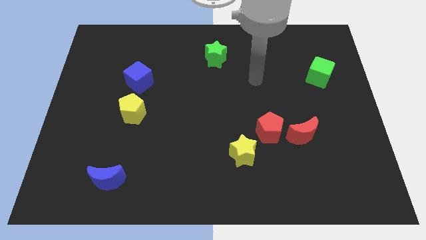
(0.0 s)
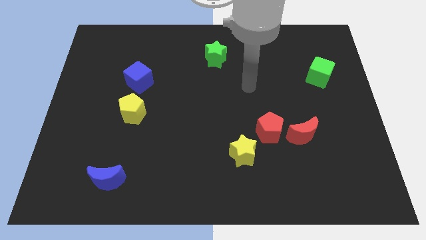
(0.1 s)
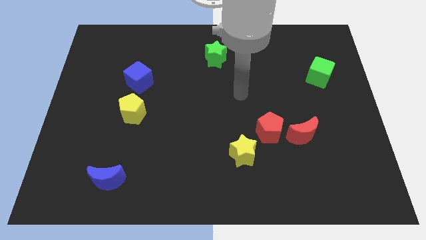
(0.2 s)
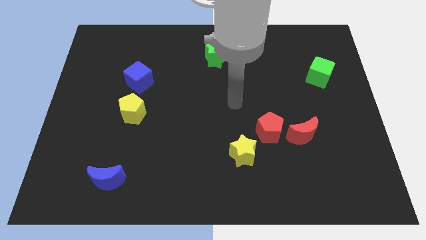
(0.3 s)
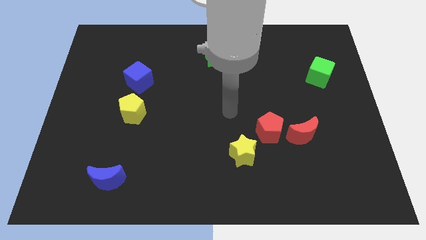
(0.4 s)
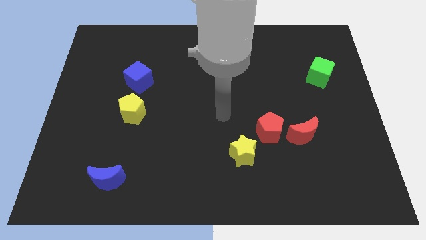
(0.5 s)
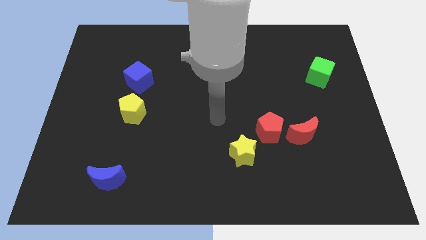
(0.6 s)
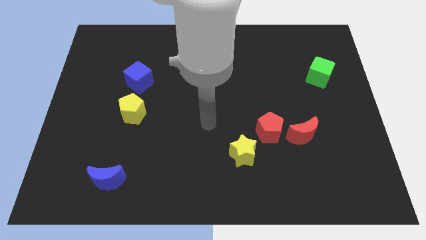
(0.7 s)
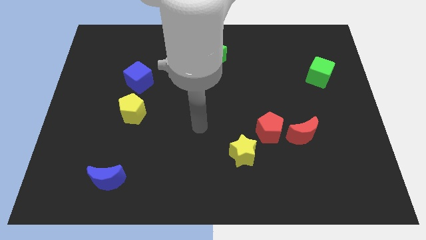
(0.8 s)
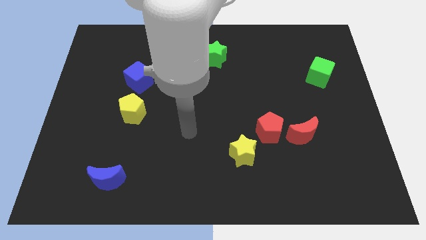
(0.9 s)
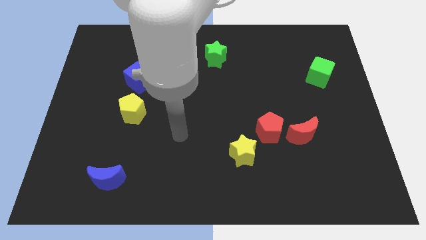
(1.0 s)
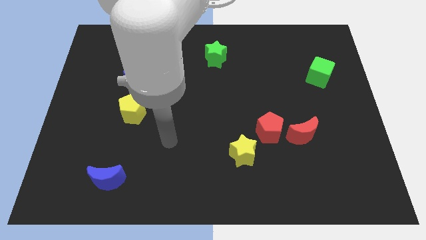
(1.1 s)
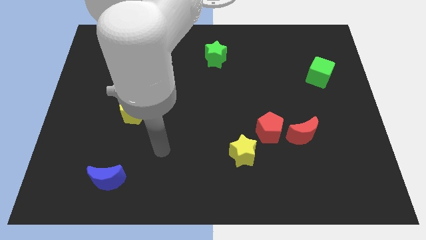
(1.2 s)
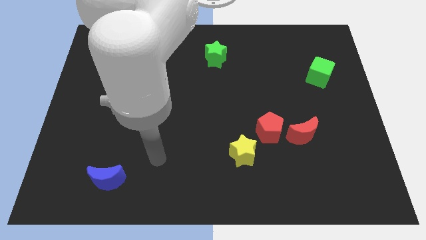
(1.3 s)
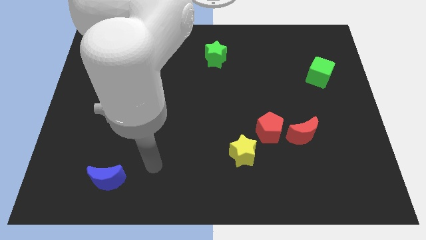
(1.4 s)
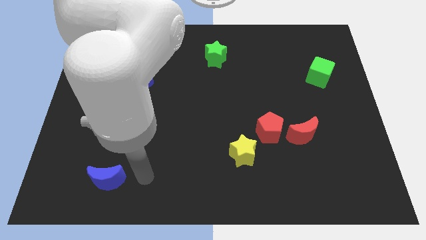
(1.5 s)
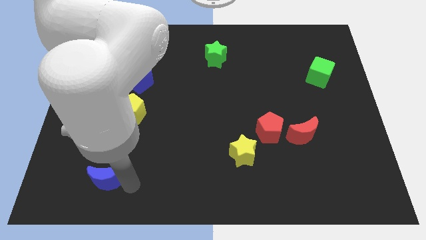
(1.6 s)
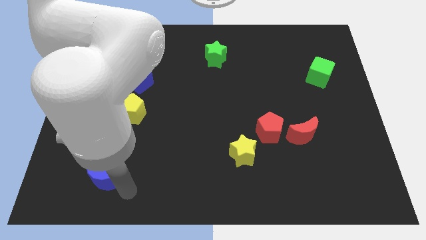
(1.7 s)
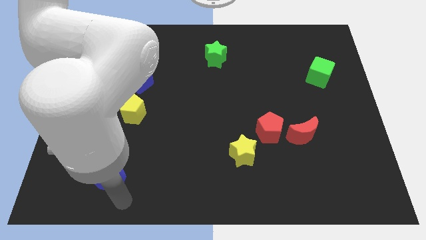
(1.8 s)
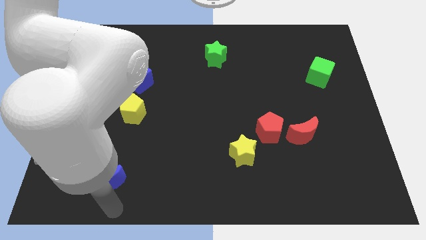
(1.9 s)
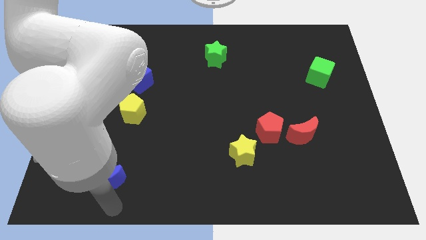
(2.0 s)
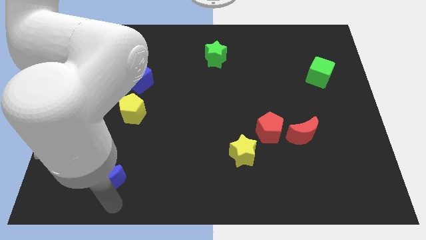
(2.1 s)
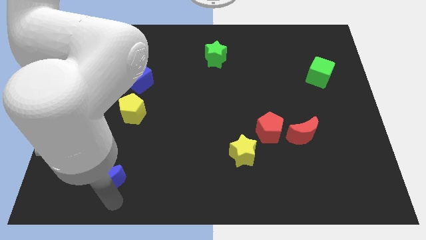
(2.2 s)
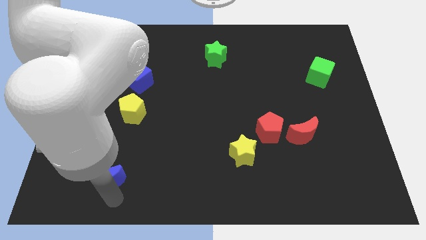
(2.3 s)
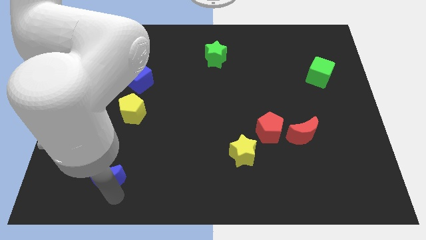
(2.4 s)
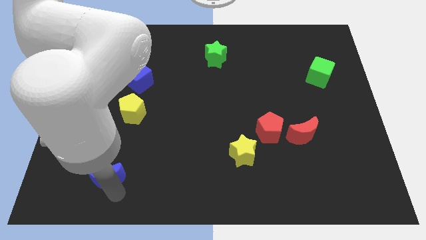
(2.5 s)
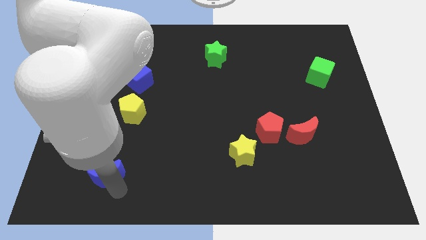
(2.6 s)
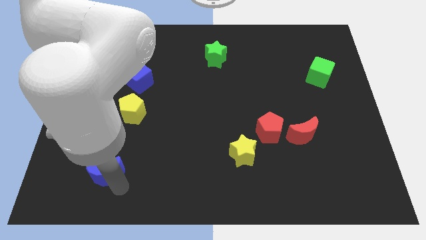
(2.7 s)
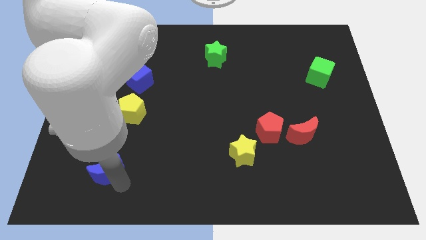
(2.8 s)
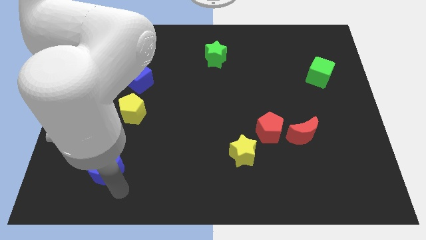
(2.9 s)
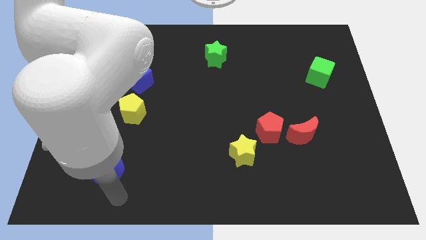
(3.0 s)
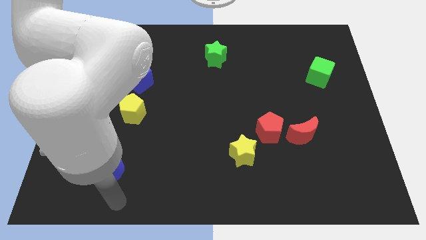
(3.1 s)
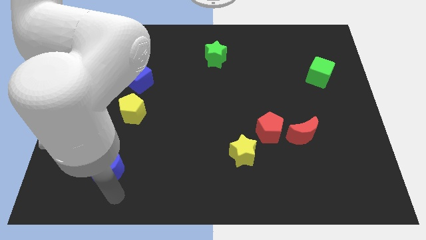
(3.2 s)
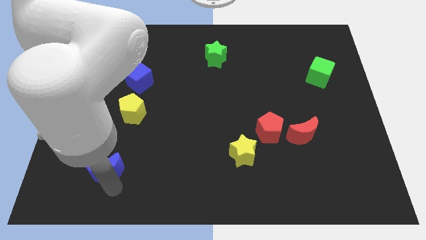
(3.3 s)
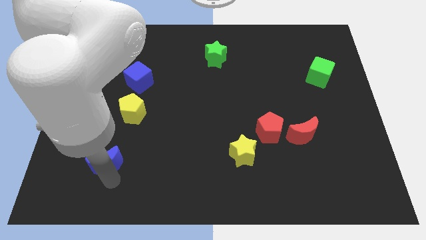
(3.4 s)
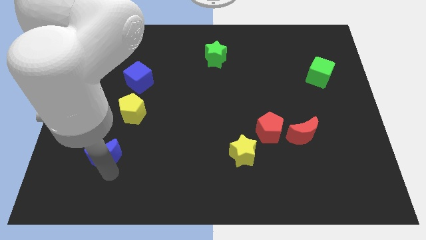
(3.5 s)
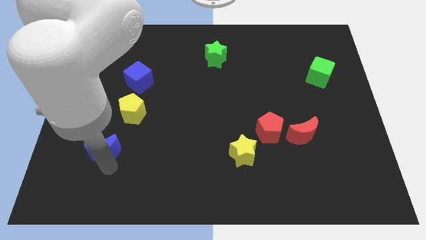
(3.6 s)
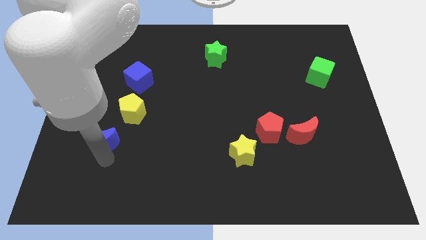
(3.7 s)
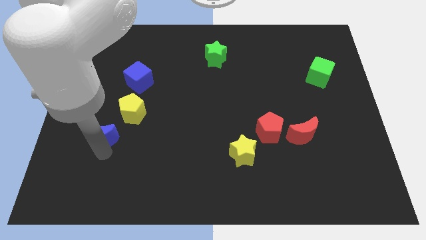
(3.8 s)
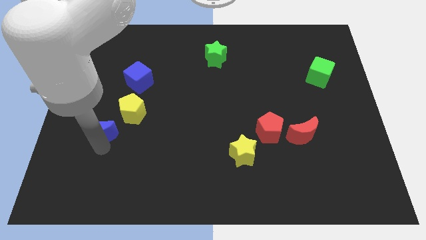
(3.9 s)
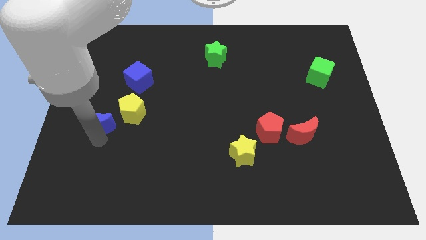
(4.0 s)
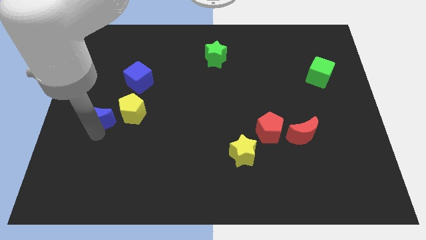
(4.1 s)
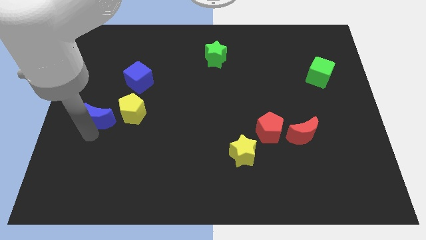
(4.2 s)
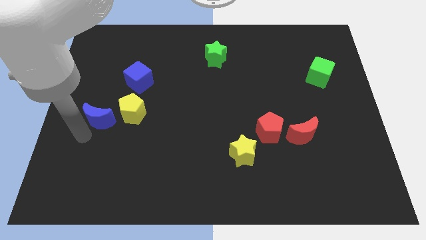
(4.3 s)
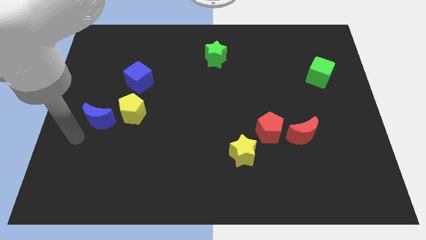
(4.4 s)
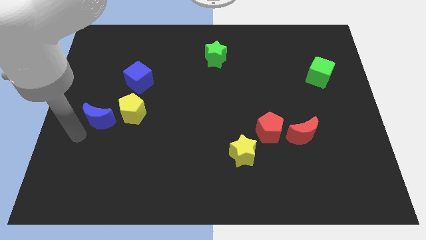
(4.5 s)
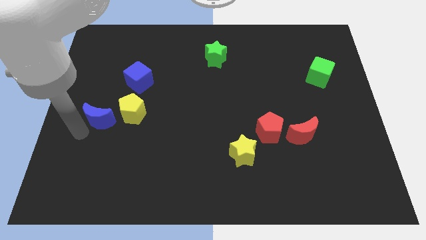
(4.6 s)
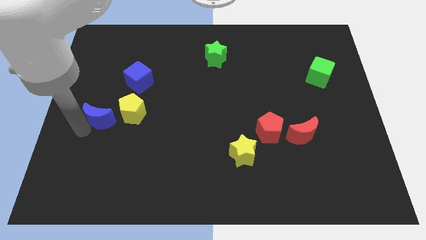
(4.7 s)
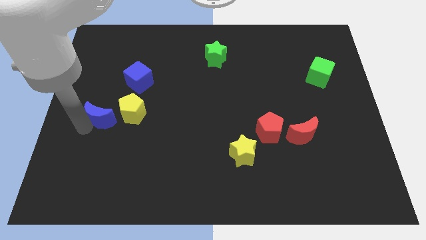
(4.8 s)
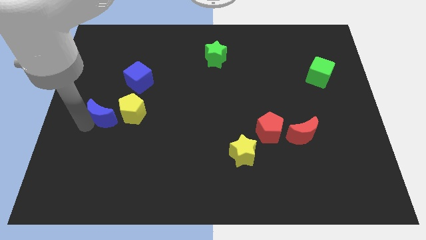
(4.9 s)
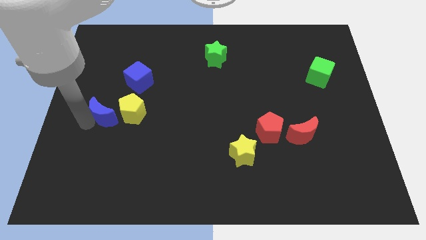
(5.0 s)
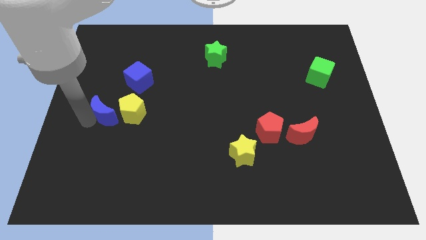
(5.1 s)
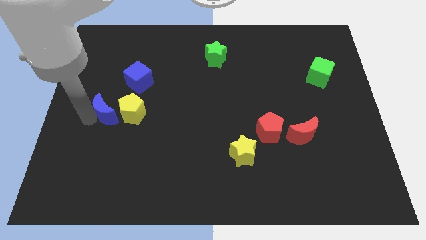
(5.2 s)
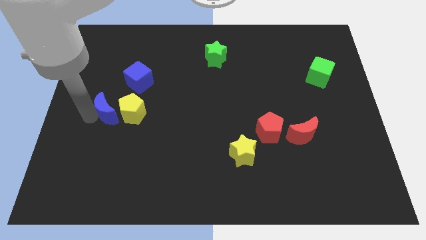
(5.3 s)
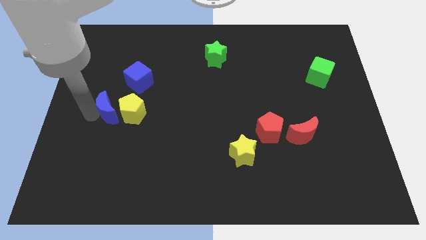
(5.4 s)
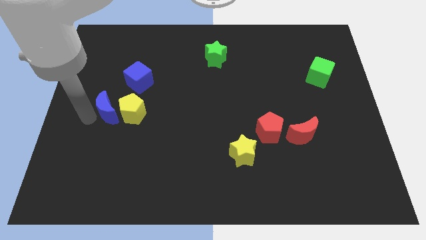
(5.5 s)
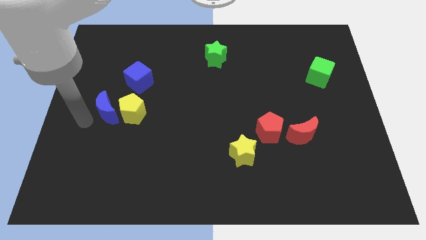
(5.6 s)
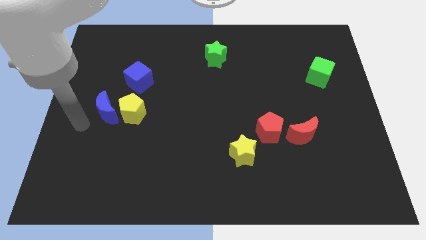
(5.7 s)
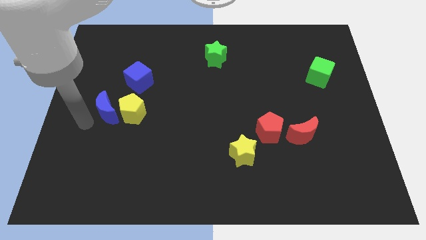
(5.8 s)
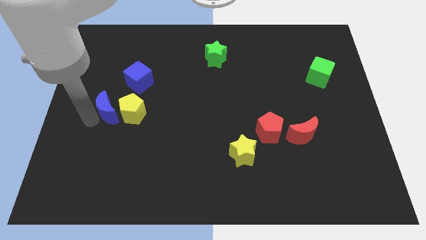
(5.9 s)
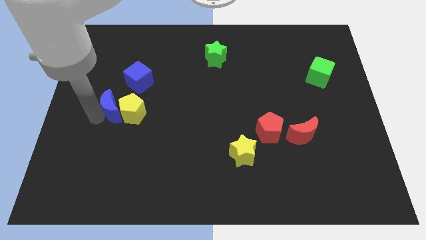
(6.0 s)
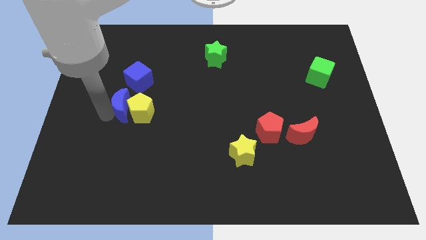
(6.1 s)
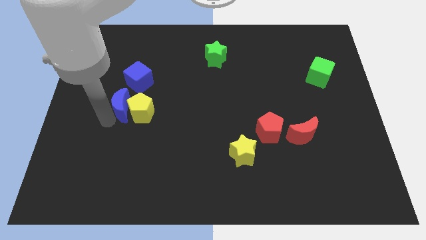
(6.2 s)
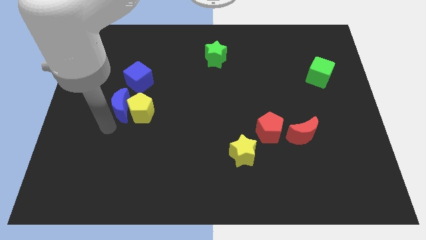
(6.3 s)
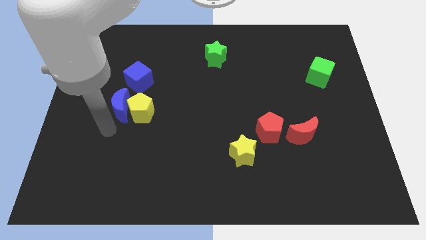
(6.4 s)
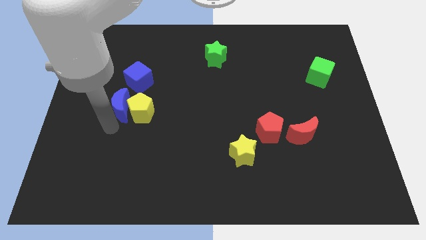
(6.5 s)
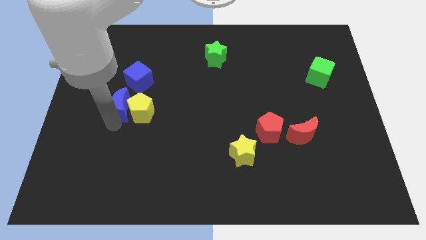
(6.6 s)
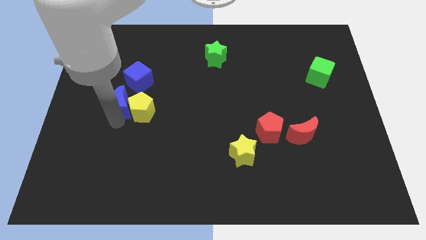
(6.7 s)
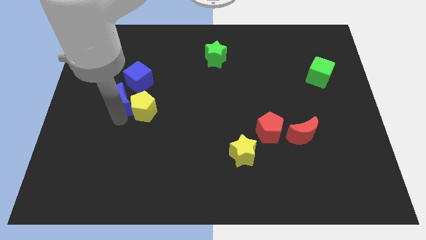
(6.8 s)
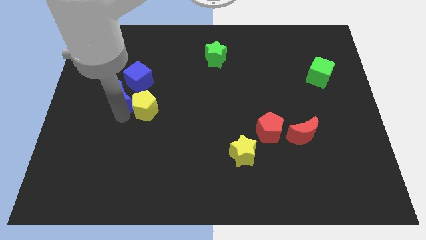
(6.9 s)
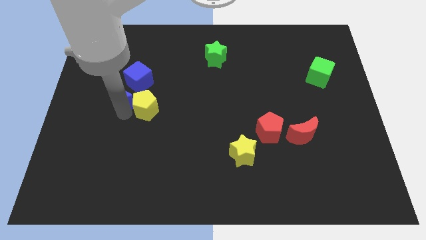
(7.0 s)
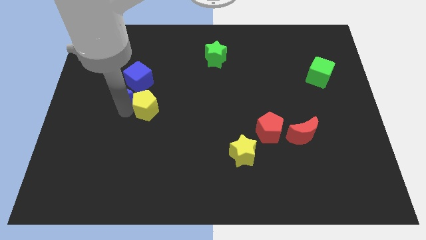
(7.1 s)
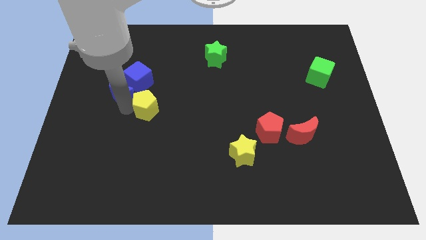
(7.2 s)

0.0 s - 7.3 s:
slide the blue moon close to the blue cube

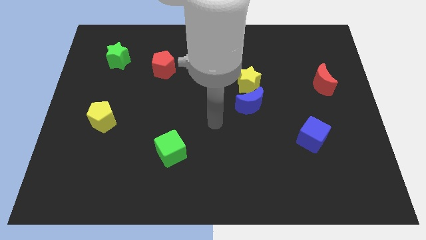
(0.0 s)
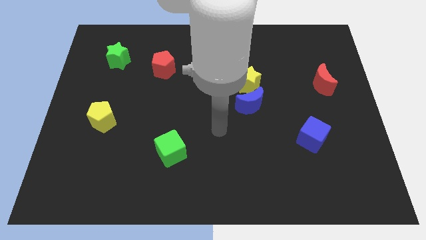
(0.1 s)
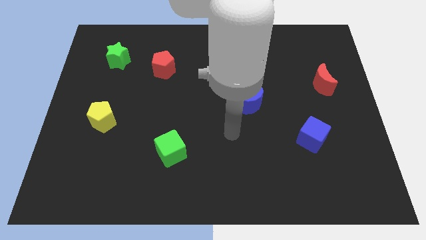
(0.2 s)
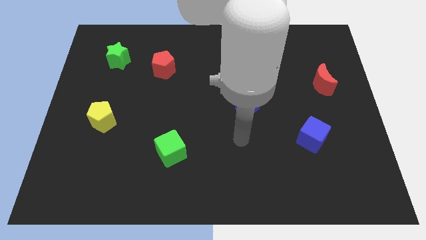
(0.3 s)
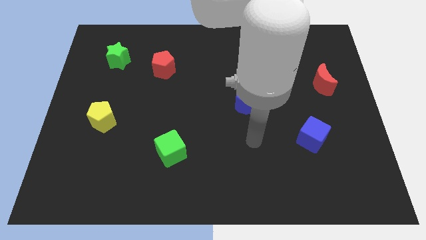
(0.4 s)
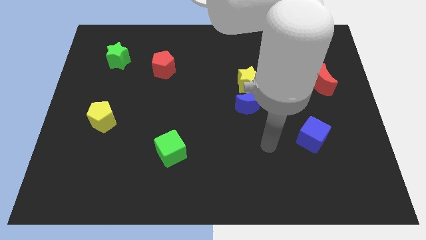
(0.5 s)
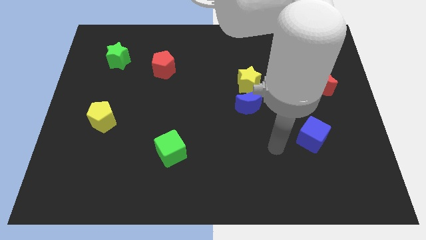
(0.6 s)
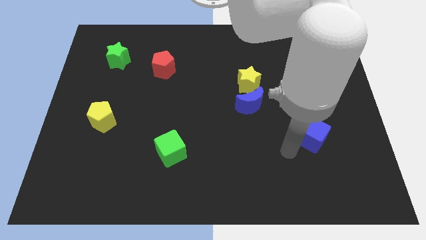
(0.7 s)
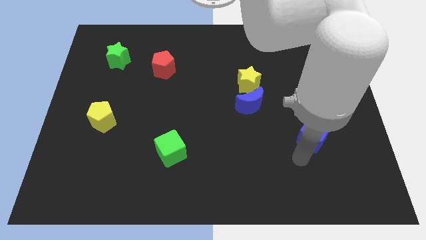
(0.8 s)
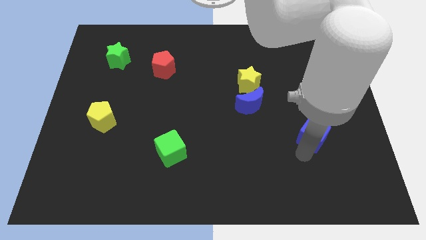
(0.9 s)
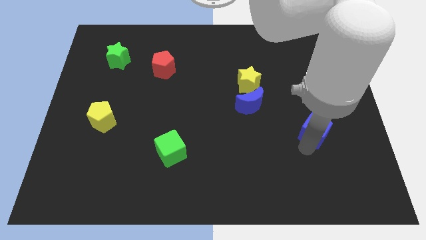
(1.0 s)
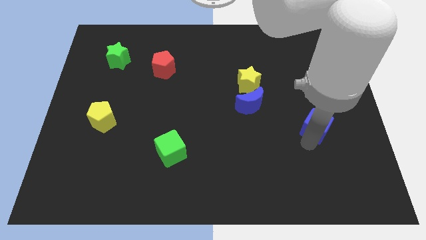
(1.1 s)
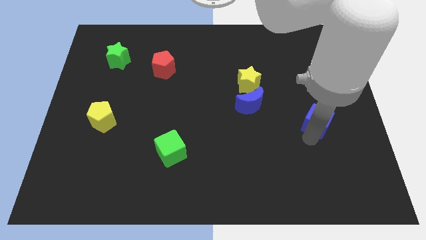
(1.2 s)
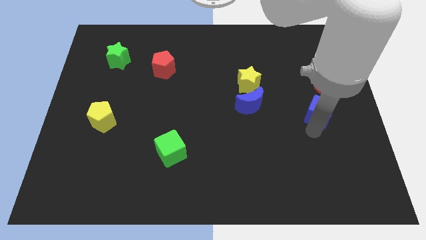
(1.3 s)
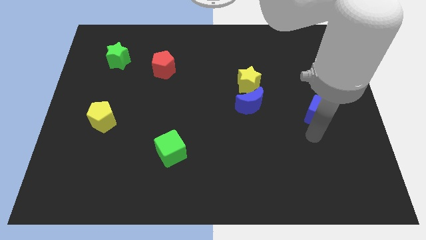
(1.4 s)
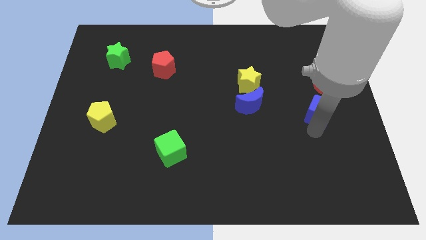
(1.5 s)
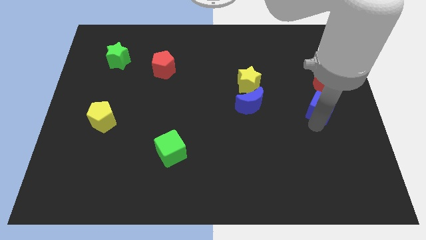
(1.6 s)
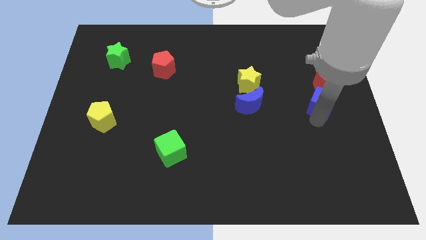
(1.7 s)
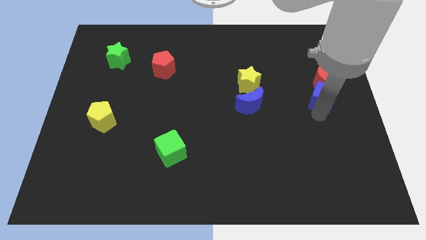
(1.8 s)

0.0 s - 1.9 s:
slide the blue cube close to the red moon
